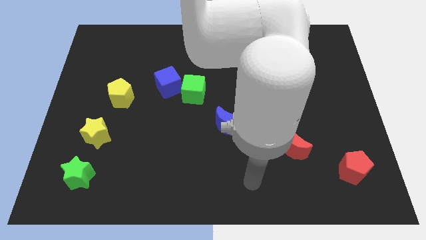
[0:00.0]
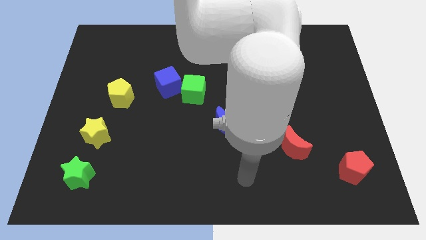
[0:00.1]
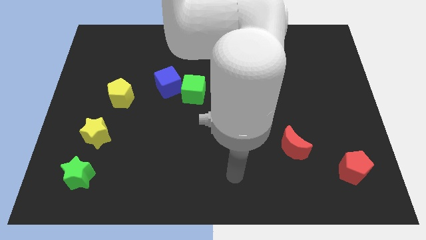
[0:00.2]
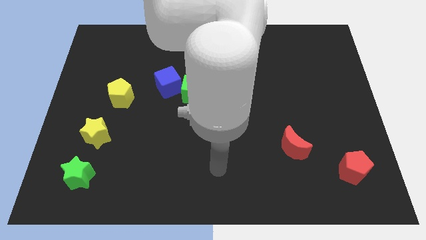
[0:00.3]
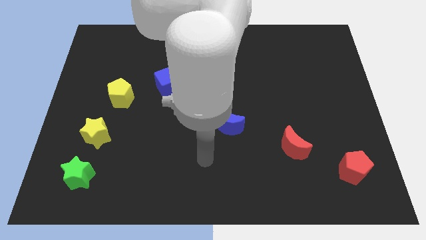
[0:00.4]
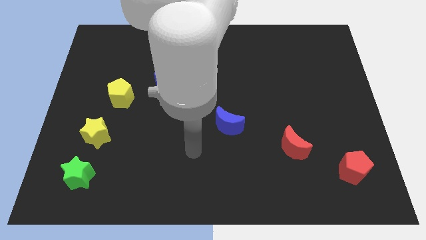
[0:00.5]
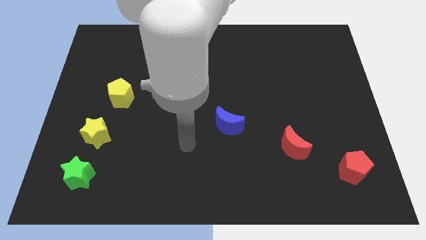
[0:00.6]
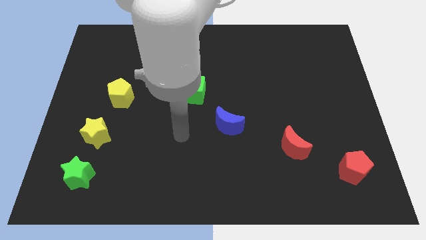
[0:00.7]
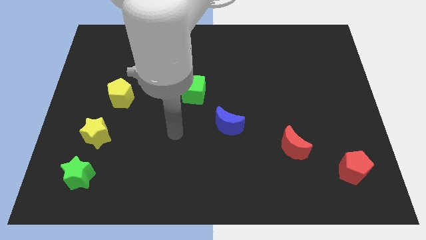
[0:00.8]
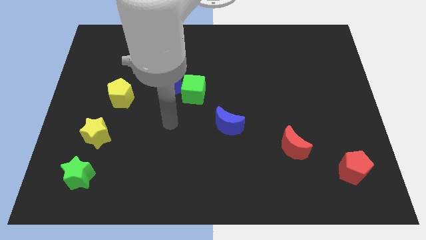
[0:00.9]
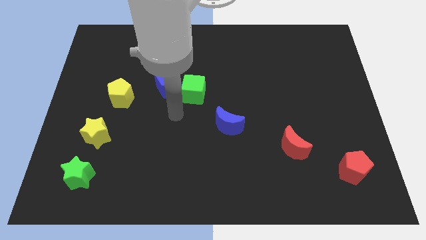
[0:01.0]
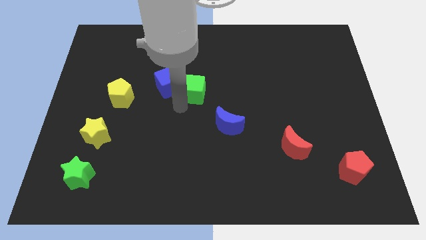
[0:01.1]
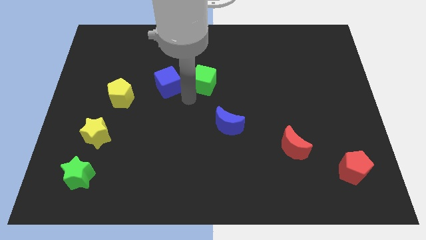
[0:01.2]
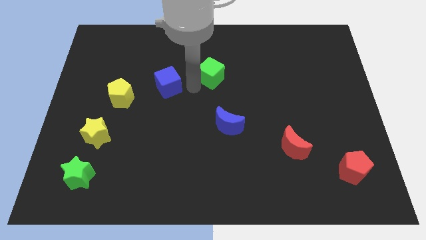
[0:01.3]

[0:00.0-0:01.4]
pull the blue cube apart from the green cube

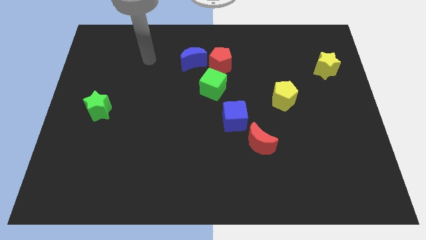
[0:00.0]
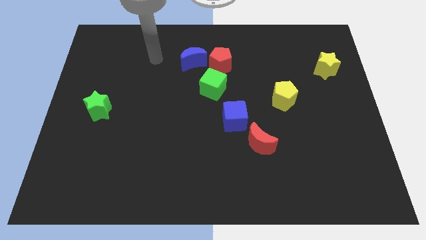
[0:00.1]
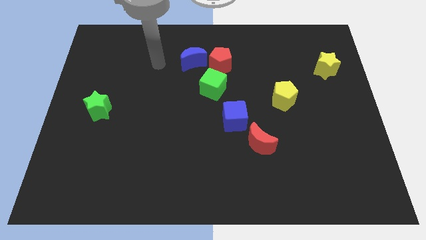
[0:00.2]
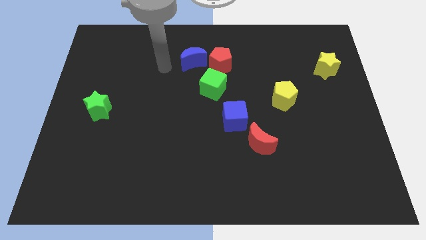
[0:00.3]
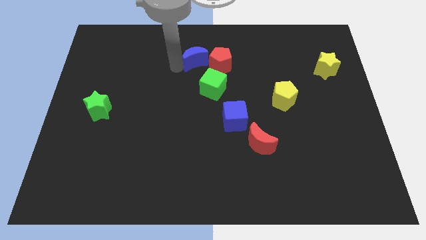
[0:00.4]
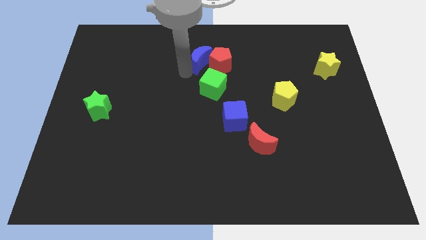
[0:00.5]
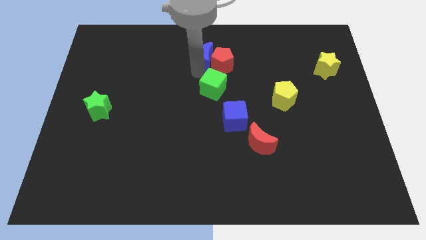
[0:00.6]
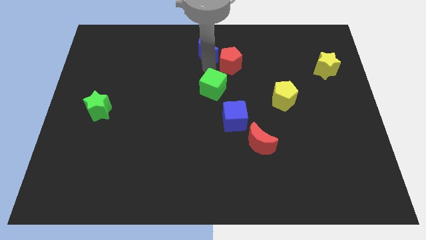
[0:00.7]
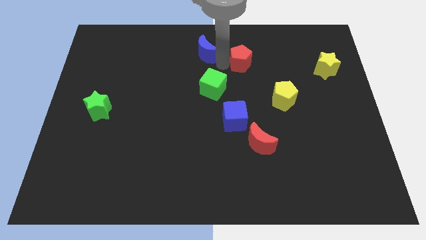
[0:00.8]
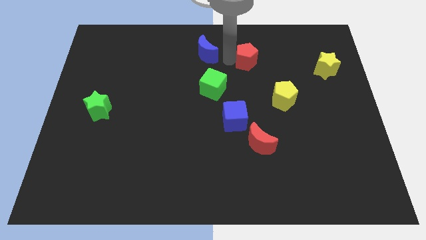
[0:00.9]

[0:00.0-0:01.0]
pull the blue moon apart from the red pentagon

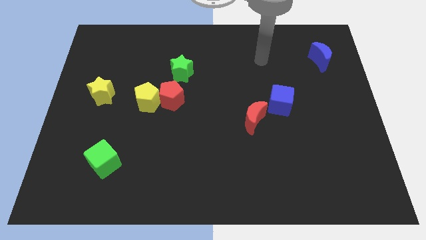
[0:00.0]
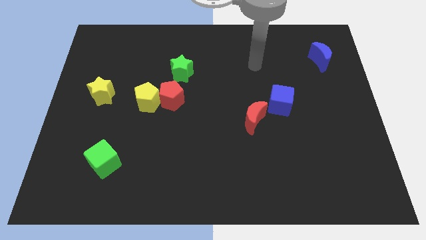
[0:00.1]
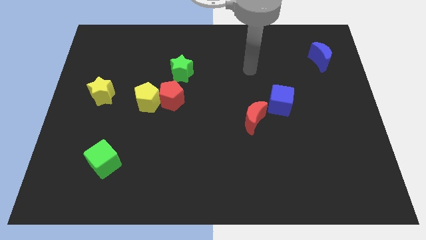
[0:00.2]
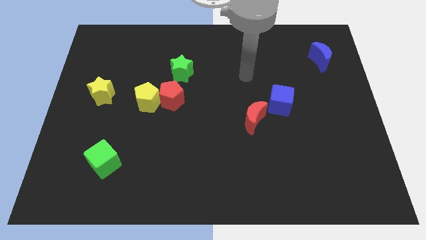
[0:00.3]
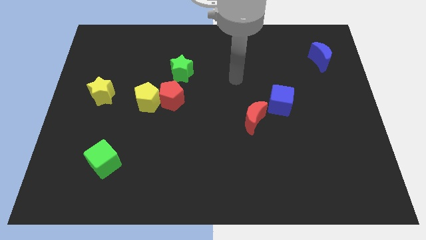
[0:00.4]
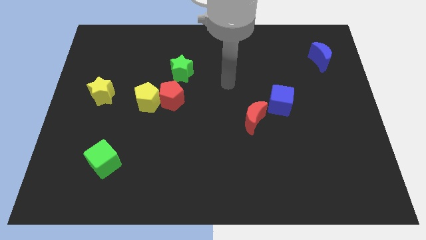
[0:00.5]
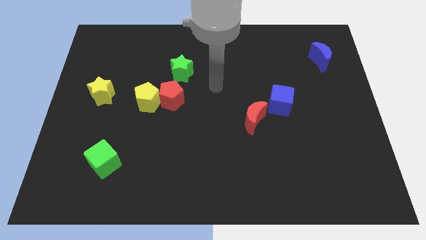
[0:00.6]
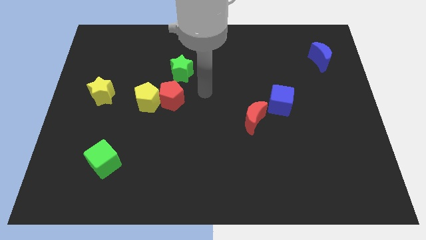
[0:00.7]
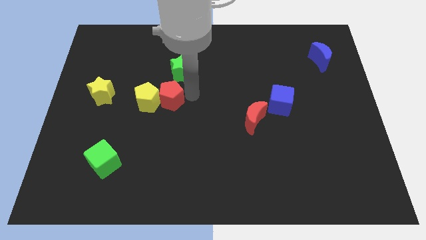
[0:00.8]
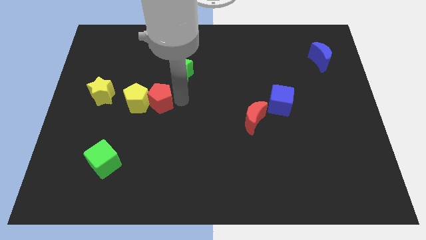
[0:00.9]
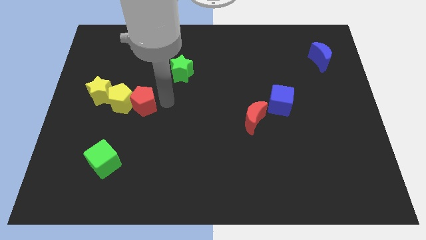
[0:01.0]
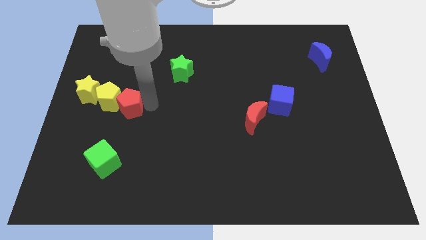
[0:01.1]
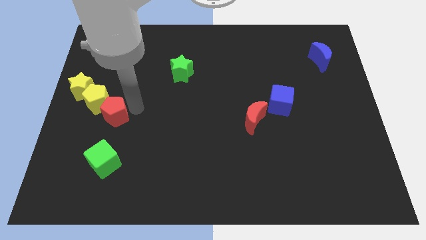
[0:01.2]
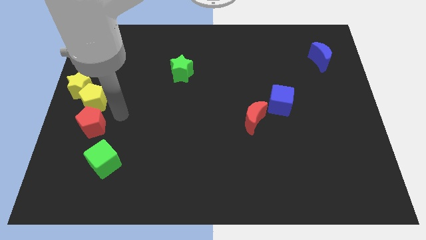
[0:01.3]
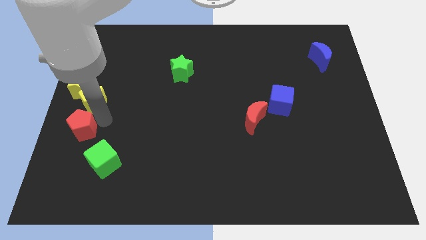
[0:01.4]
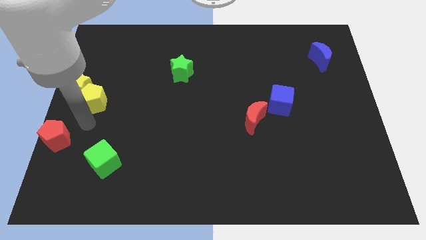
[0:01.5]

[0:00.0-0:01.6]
separate the yellow pentagon from the red pentagon

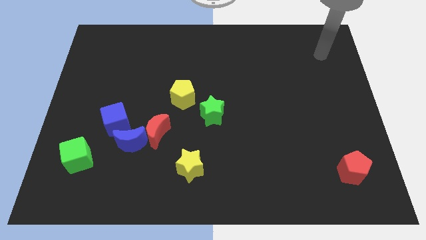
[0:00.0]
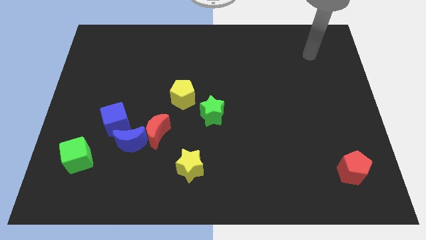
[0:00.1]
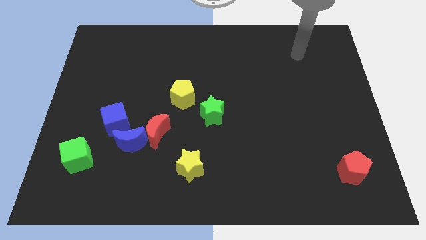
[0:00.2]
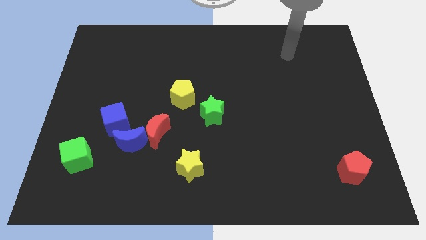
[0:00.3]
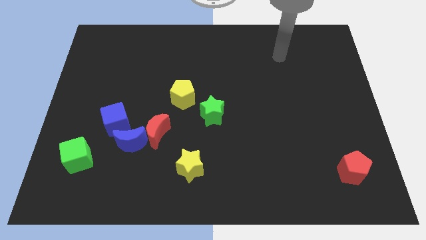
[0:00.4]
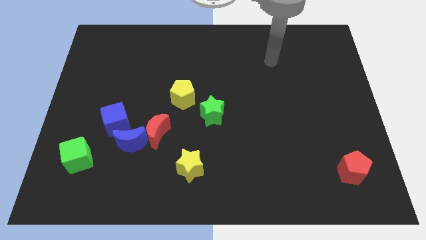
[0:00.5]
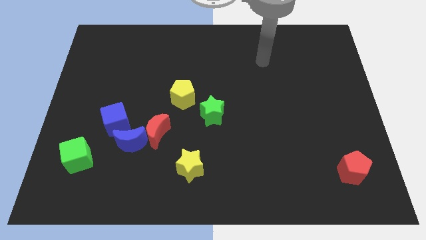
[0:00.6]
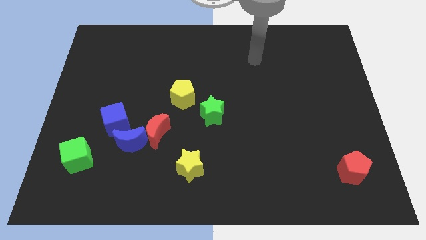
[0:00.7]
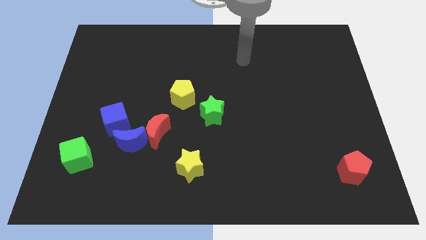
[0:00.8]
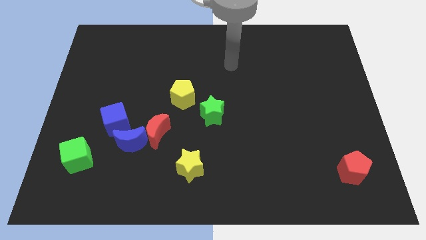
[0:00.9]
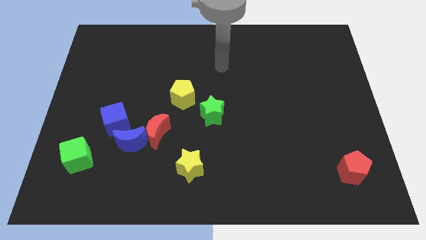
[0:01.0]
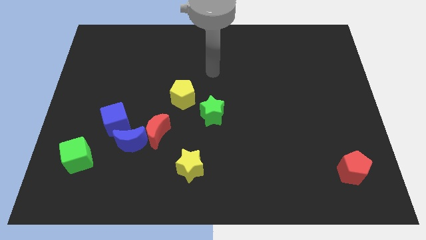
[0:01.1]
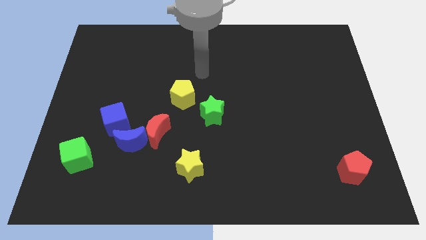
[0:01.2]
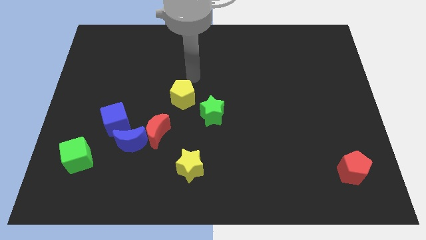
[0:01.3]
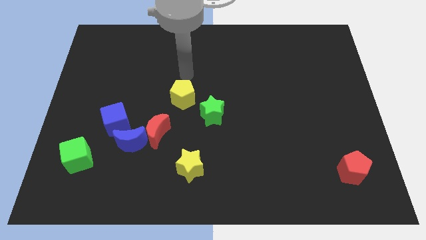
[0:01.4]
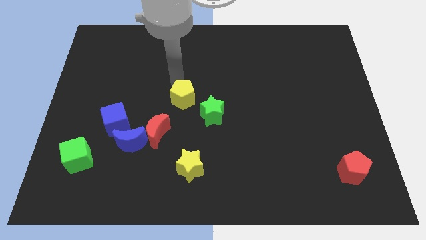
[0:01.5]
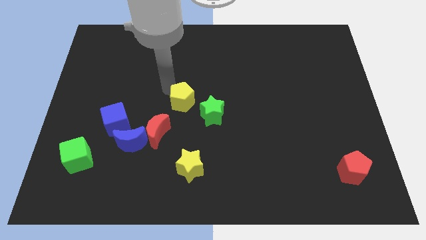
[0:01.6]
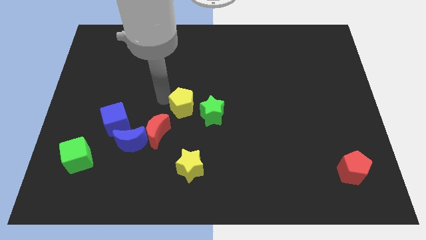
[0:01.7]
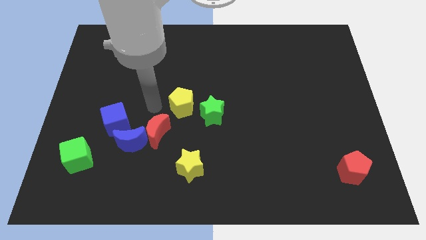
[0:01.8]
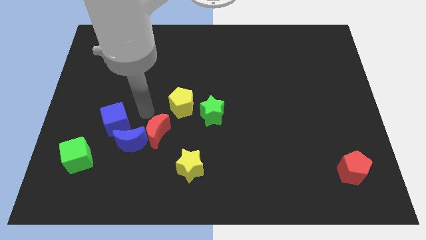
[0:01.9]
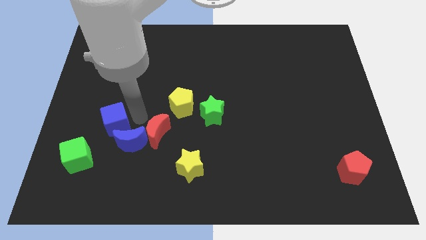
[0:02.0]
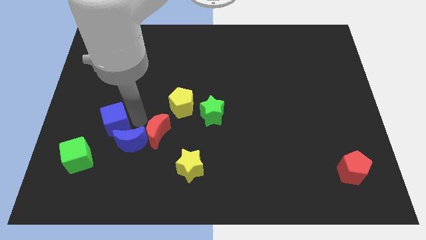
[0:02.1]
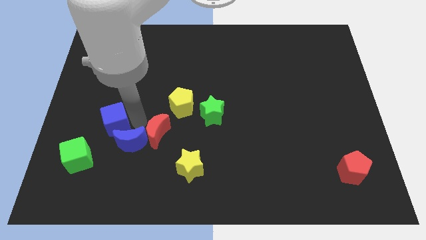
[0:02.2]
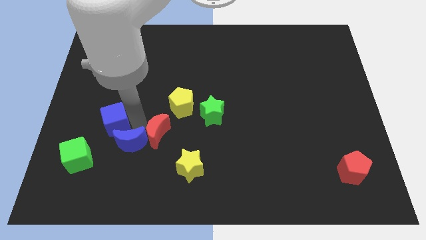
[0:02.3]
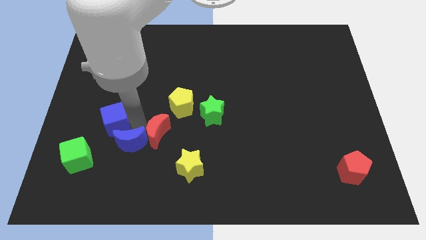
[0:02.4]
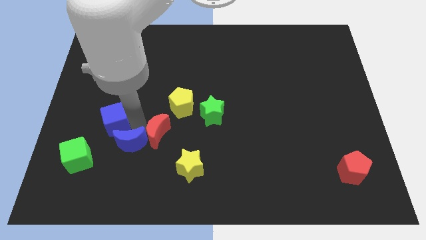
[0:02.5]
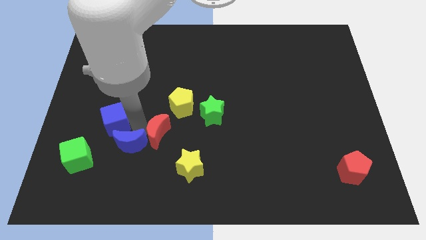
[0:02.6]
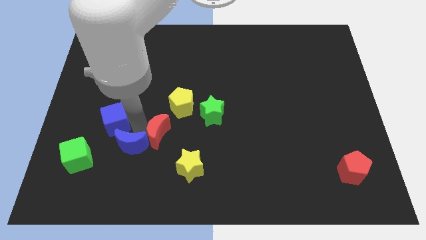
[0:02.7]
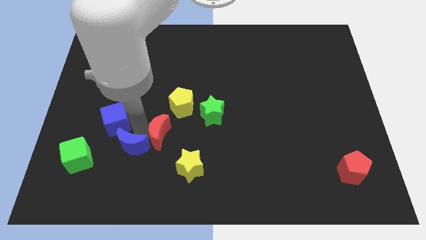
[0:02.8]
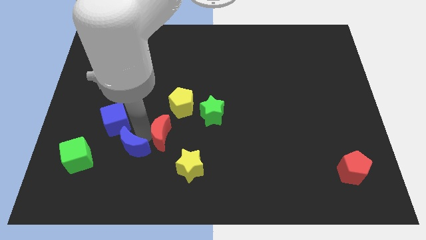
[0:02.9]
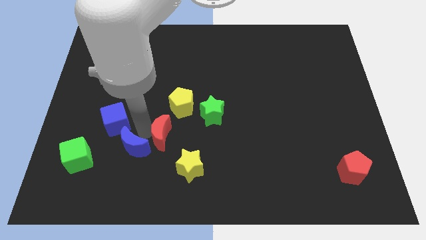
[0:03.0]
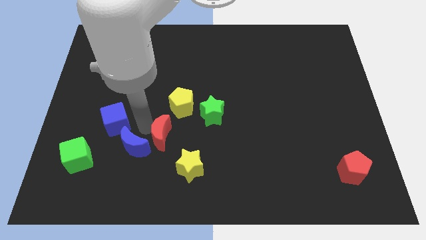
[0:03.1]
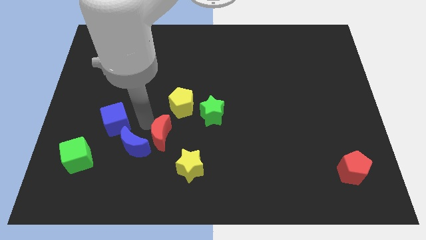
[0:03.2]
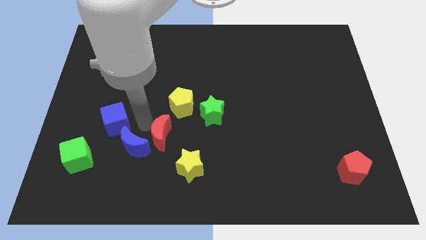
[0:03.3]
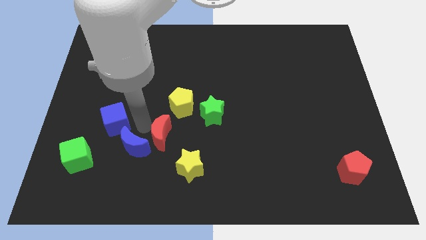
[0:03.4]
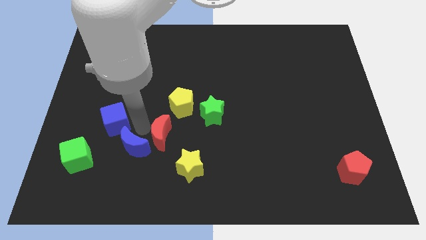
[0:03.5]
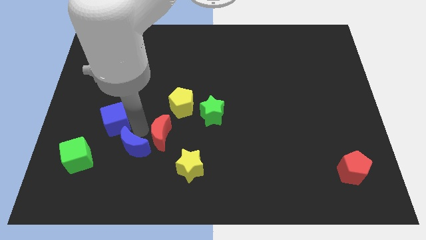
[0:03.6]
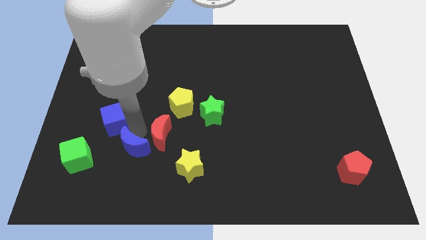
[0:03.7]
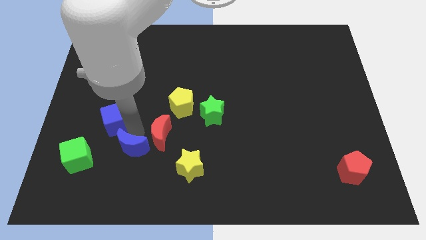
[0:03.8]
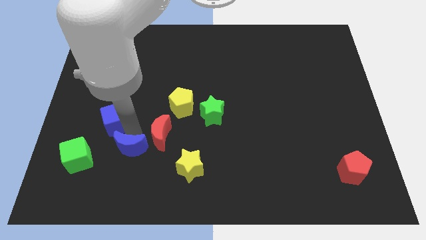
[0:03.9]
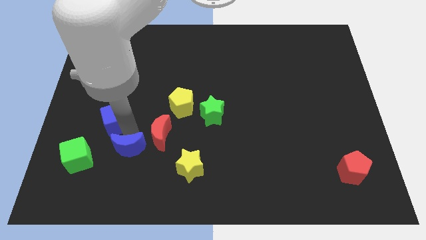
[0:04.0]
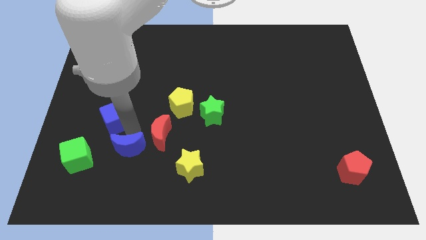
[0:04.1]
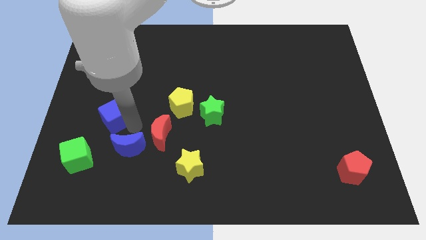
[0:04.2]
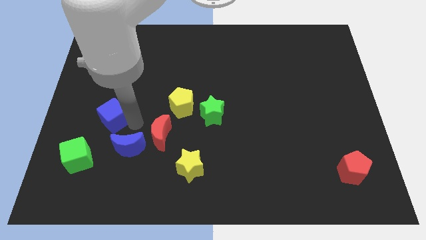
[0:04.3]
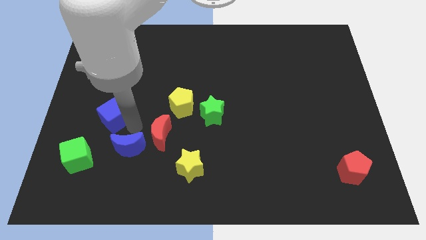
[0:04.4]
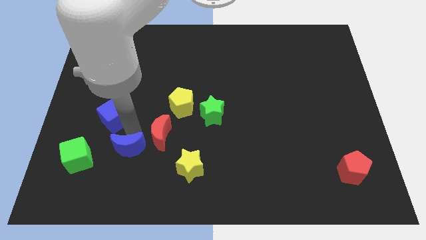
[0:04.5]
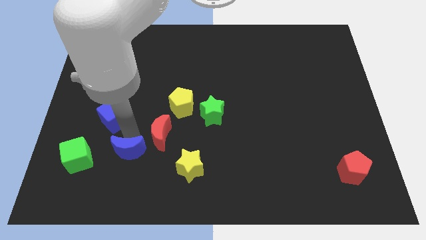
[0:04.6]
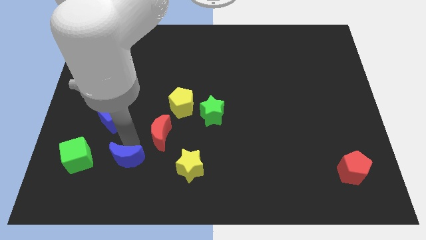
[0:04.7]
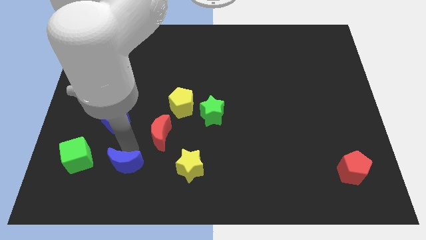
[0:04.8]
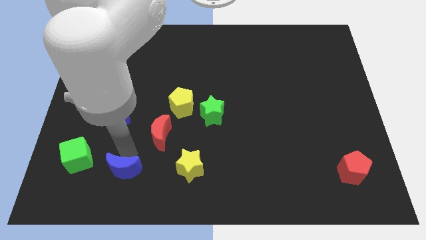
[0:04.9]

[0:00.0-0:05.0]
move the blue moon away from the red moon and blue cube

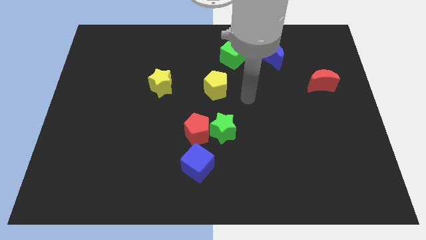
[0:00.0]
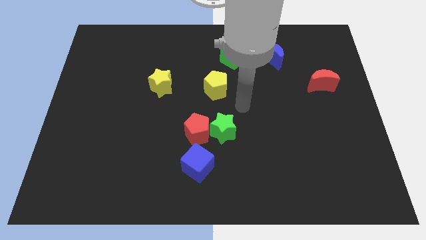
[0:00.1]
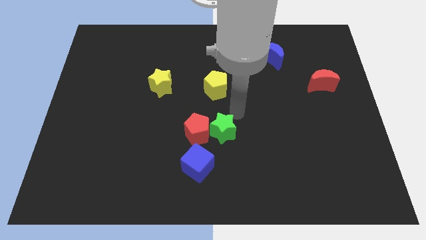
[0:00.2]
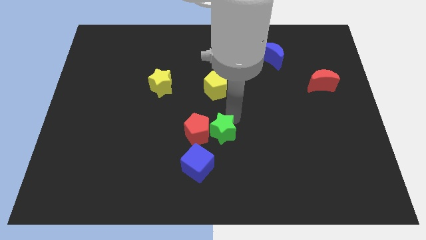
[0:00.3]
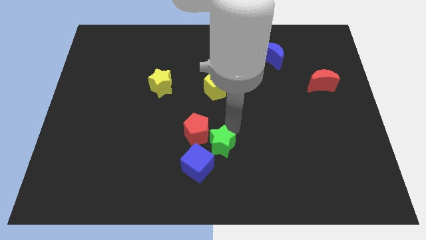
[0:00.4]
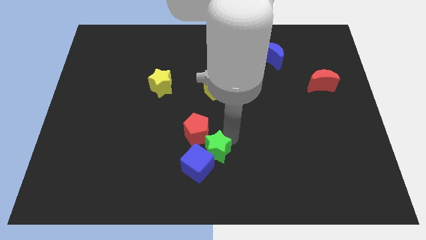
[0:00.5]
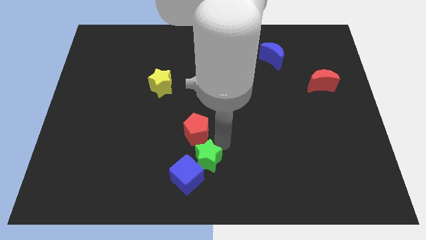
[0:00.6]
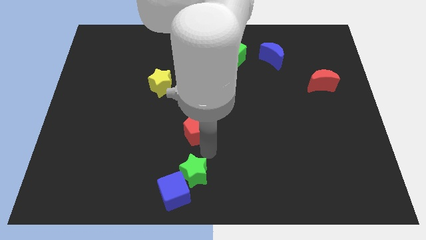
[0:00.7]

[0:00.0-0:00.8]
move the red pentagon away from the green star and blue cube
